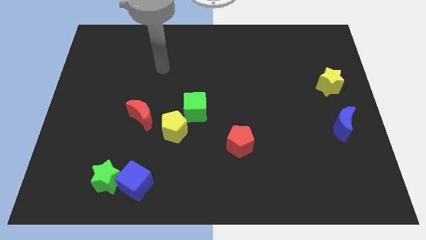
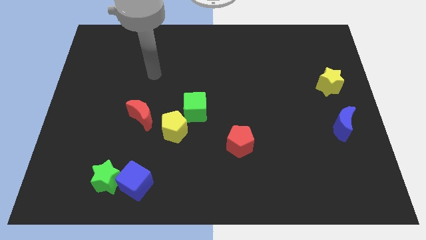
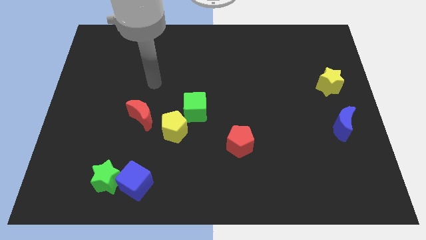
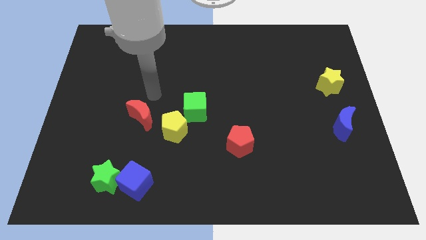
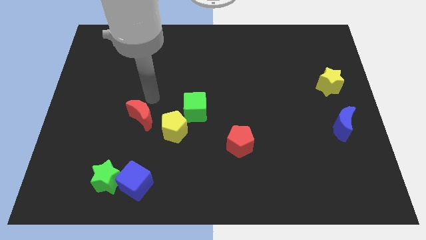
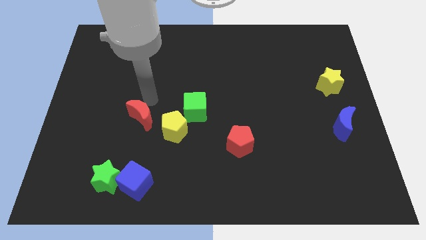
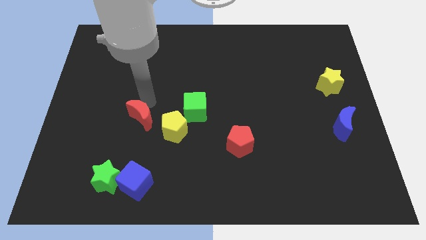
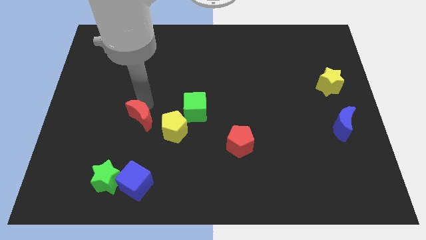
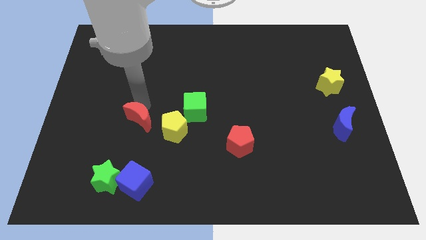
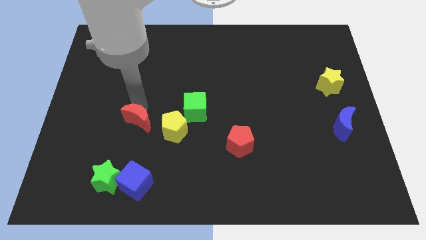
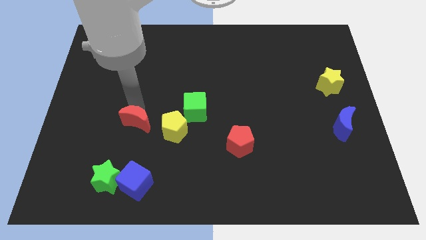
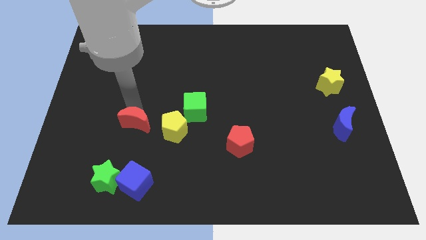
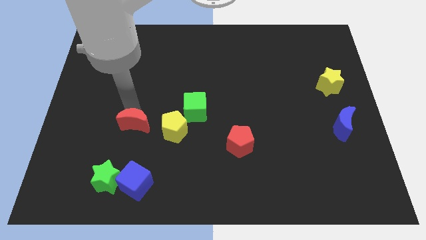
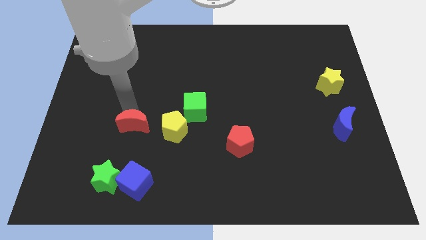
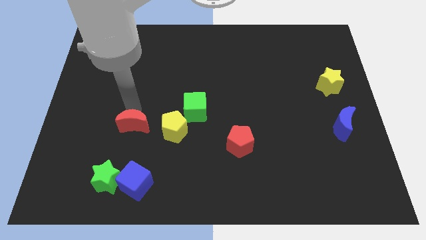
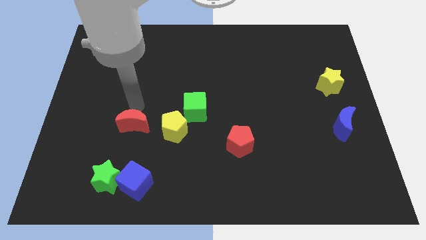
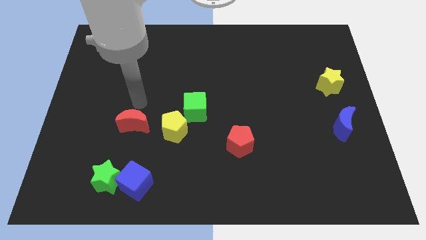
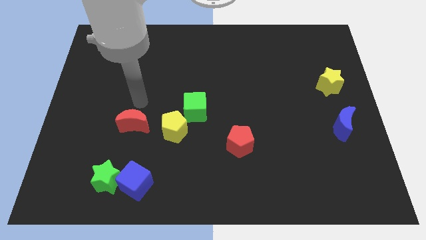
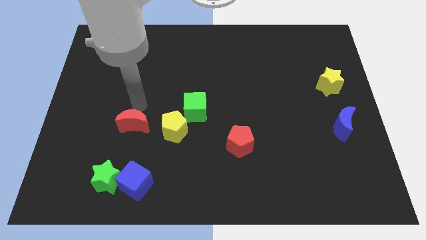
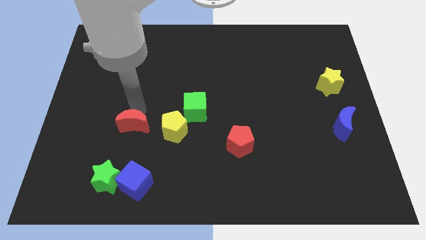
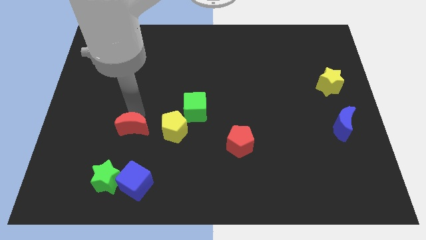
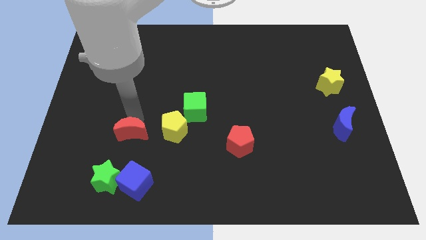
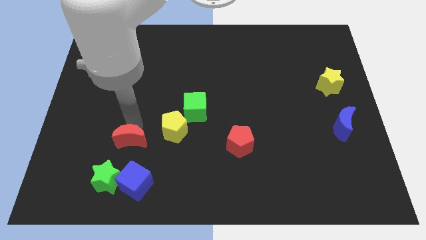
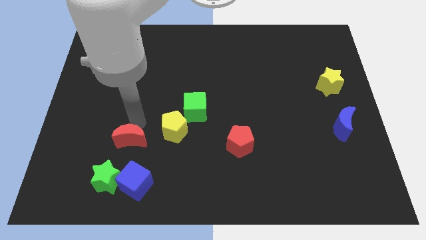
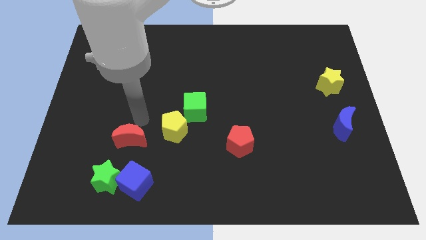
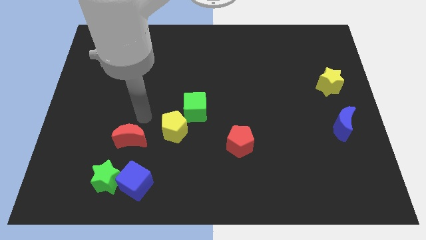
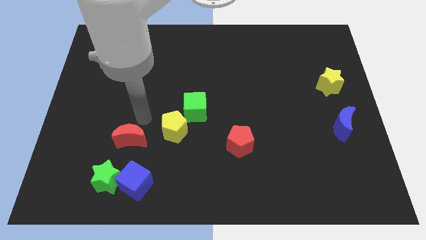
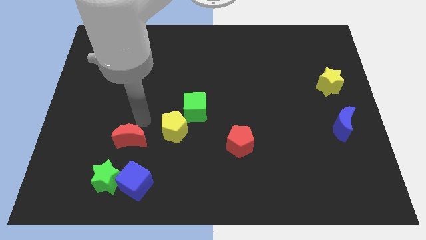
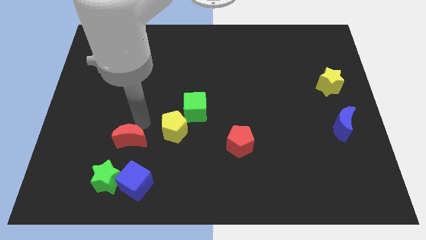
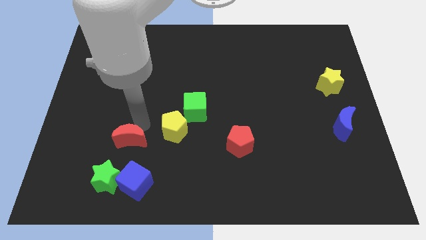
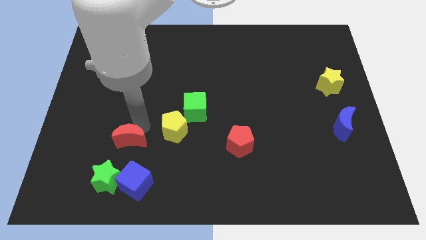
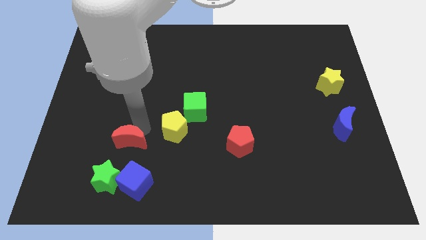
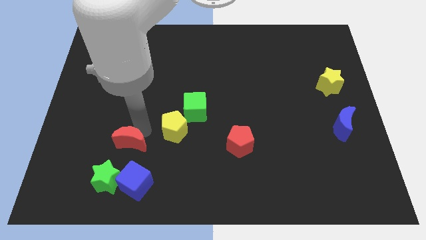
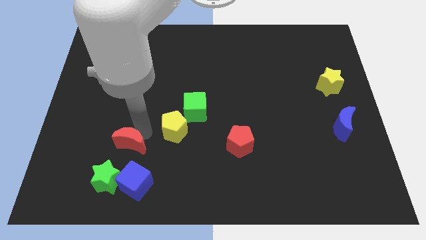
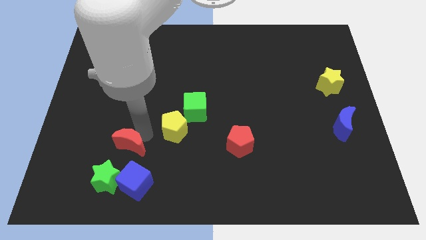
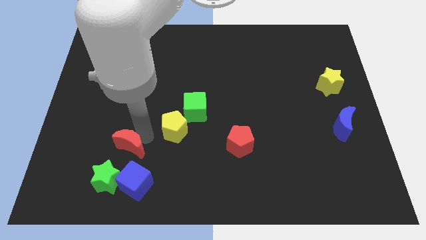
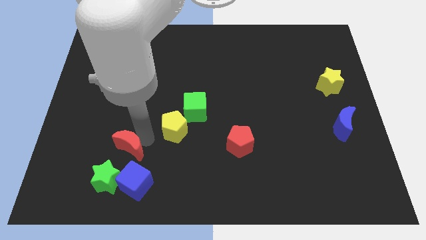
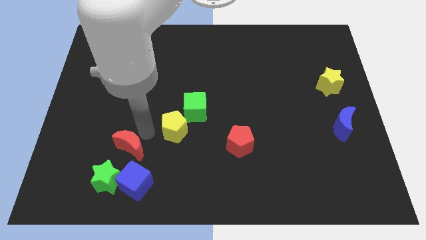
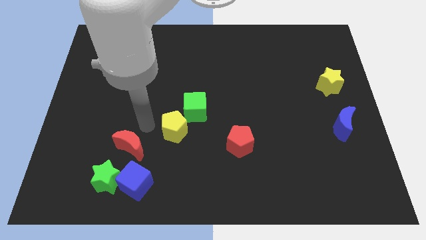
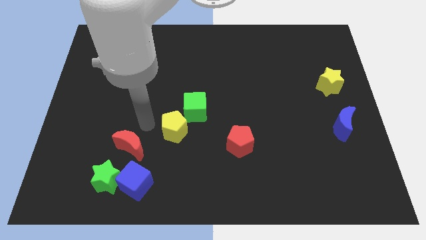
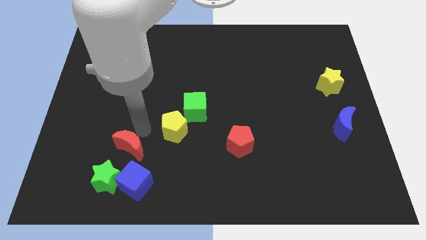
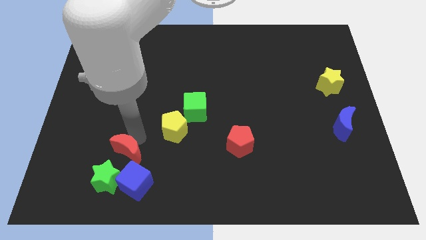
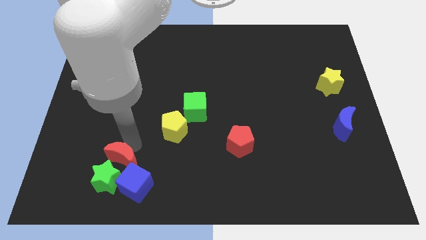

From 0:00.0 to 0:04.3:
push the red moon to the green star

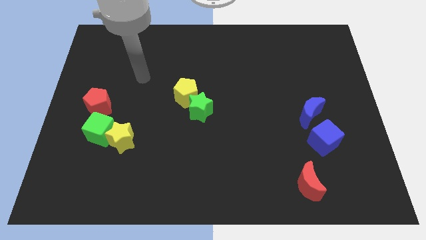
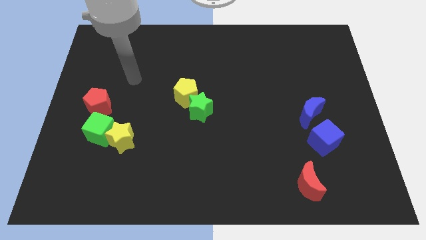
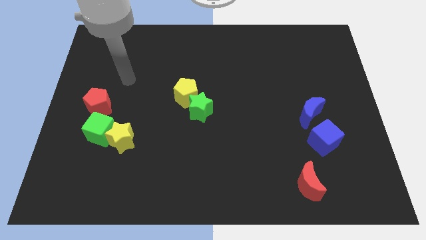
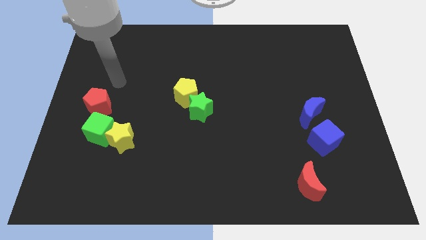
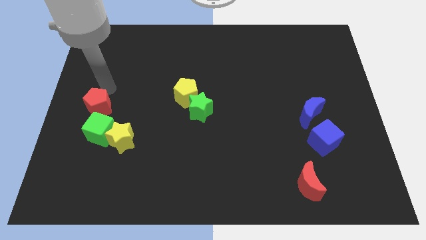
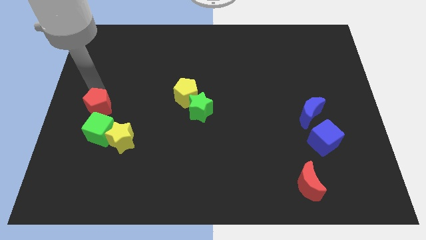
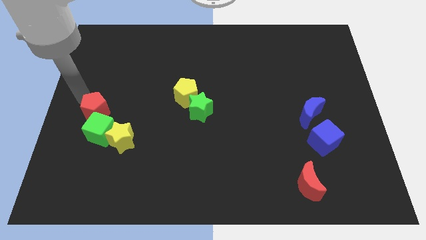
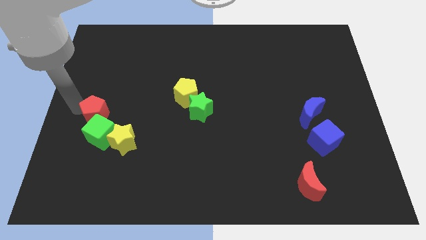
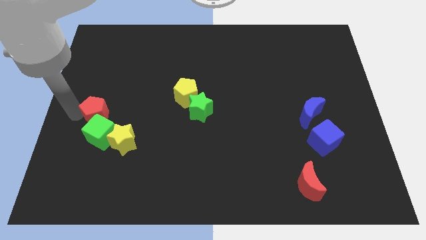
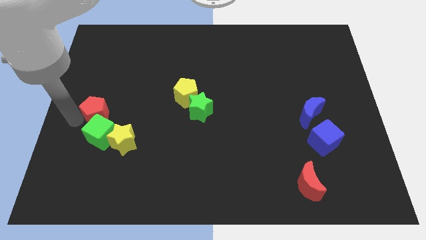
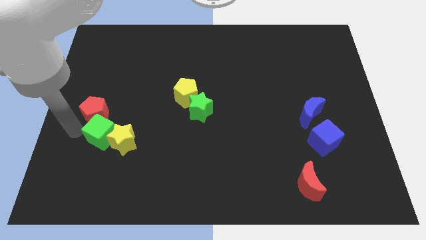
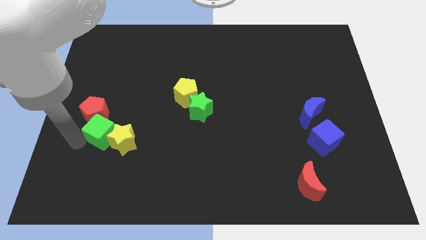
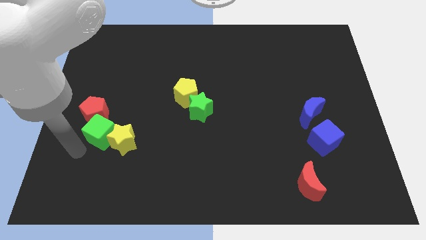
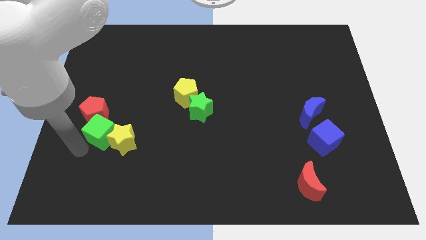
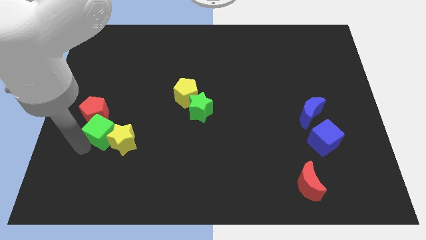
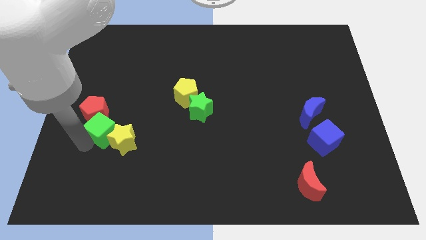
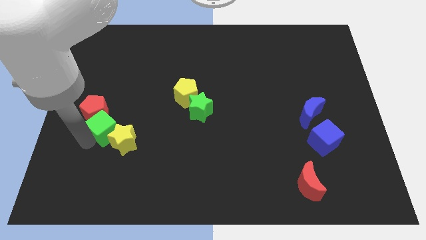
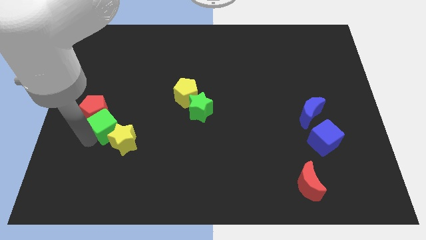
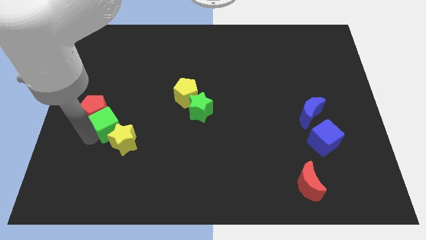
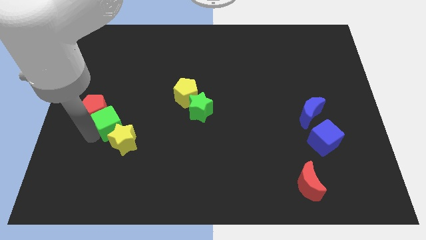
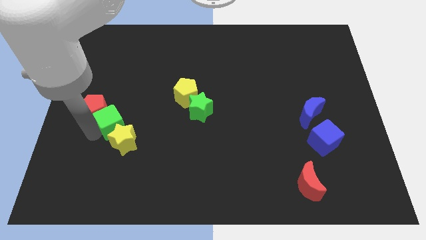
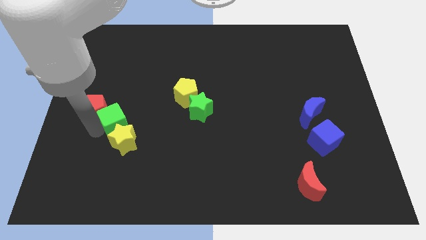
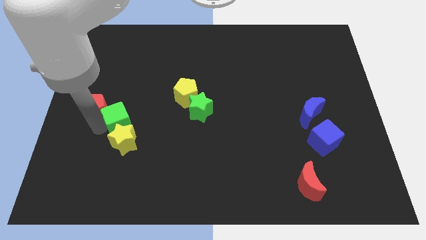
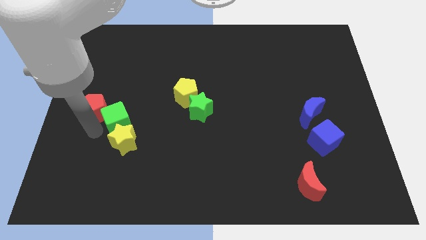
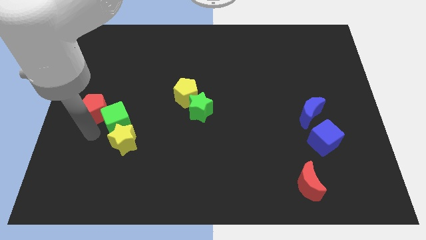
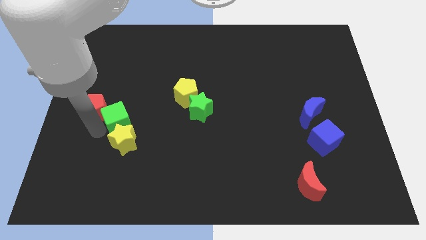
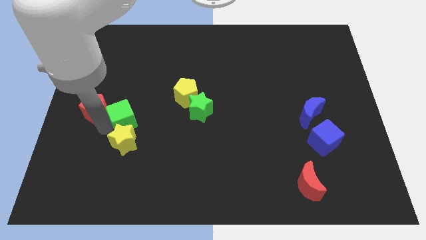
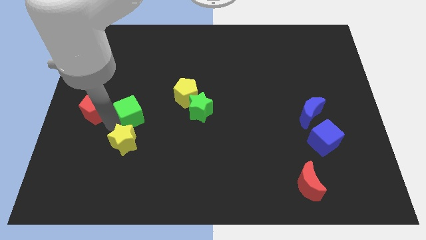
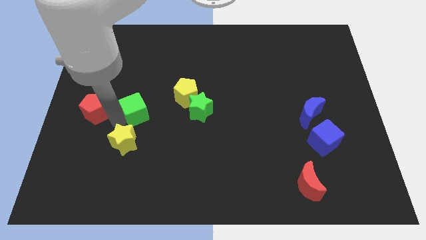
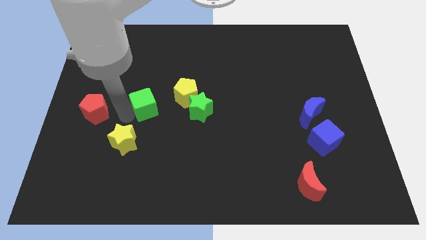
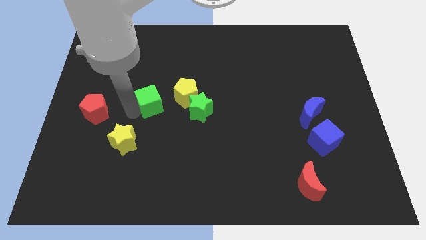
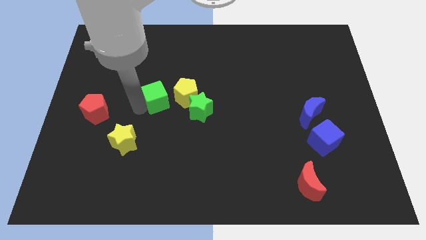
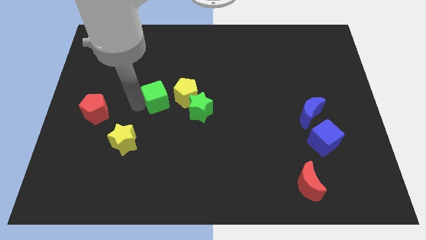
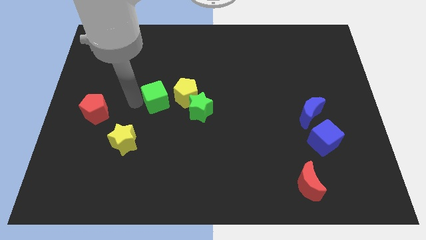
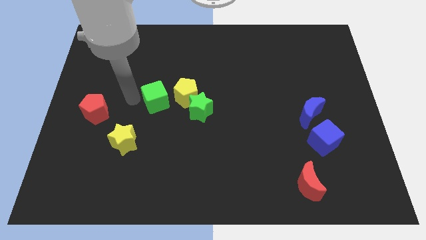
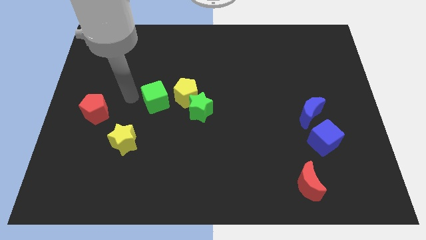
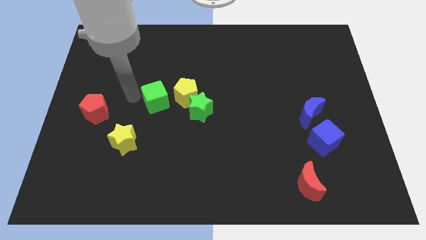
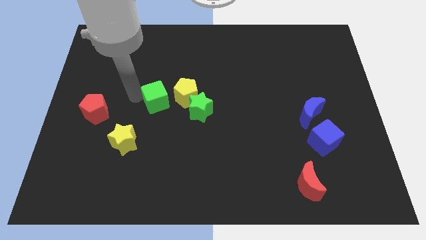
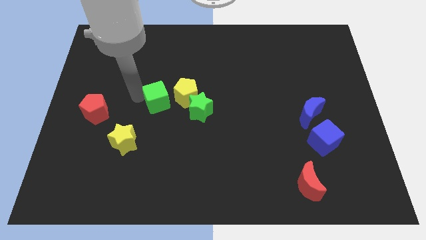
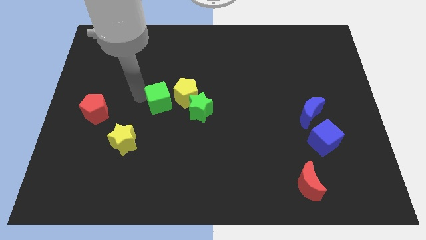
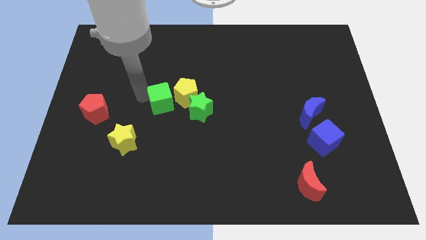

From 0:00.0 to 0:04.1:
push the green cube next to the yellow pentagon
